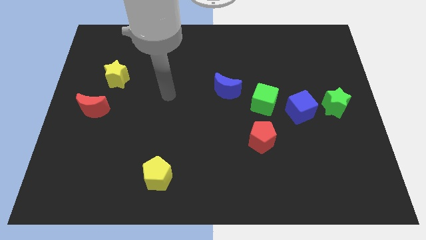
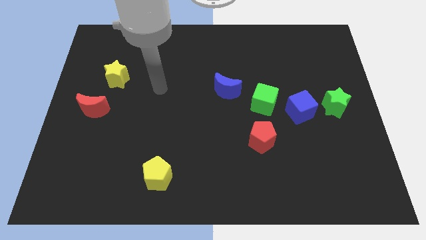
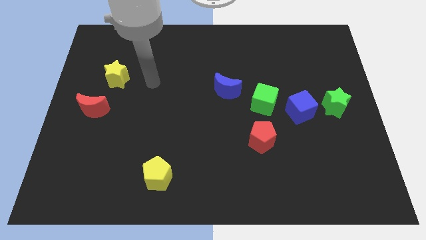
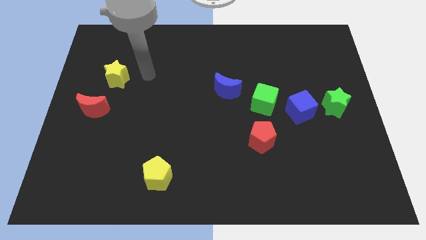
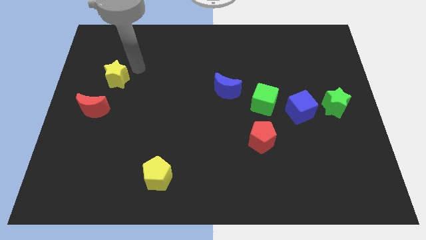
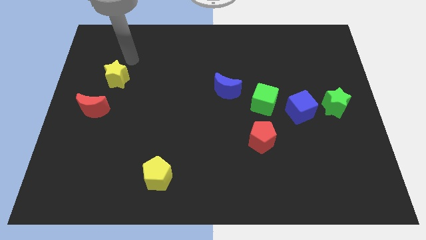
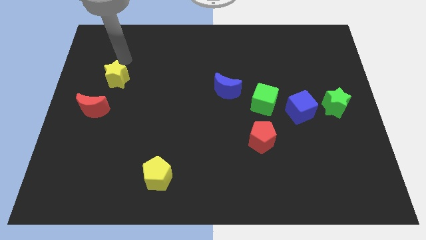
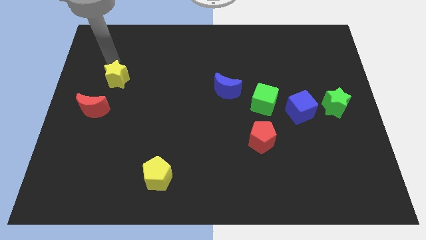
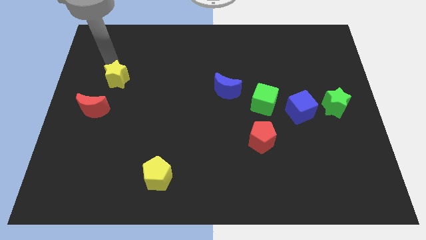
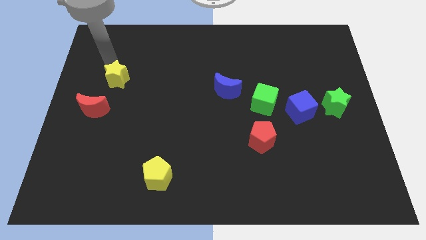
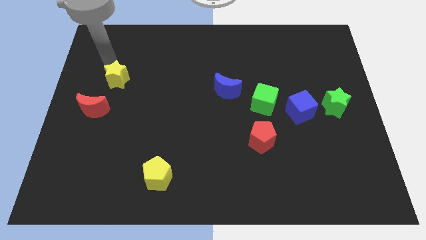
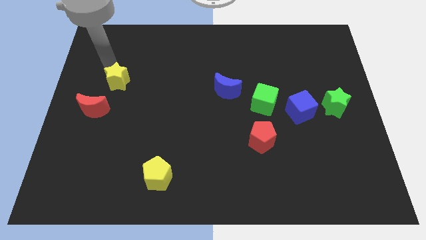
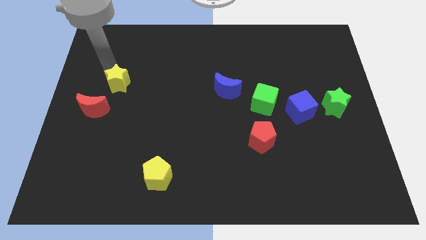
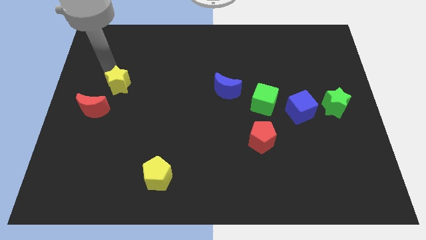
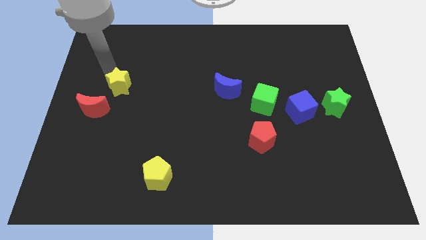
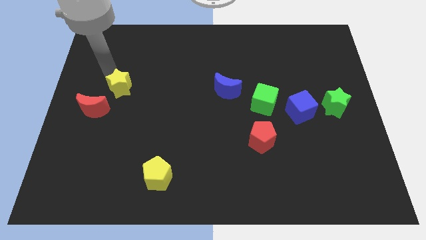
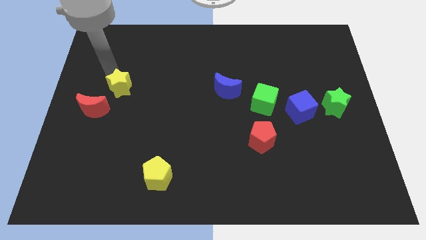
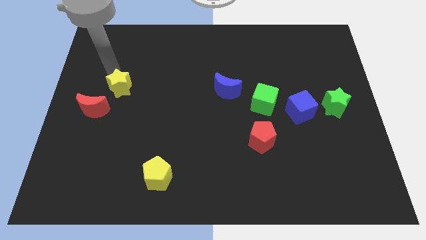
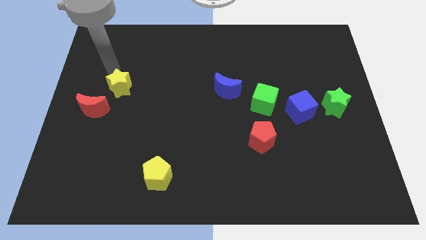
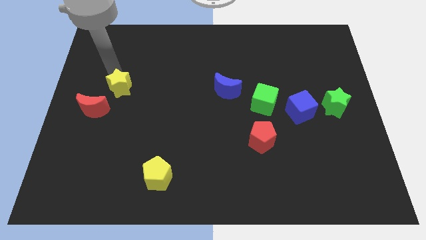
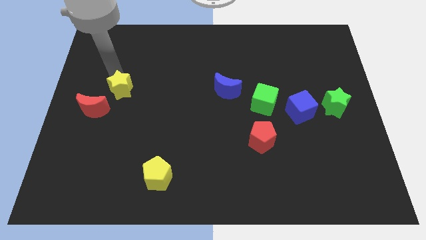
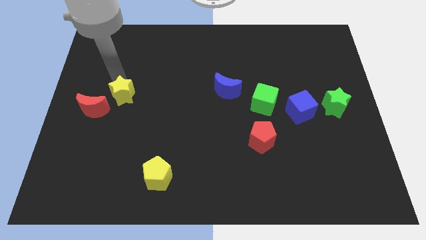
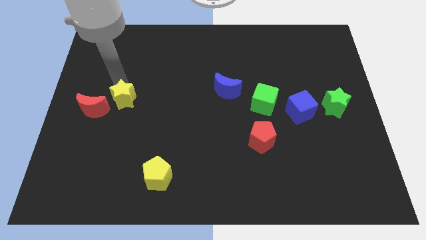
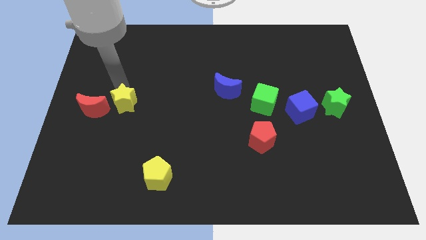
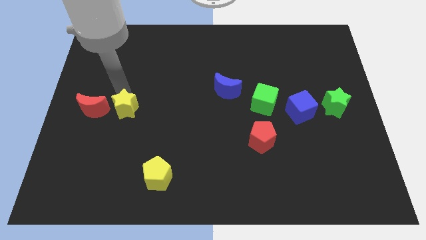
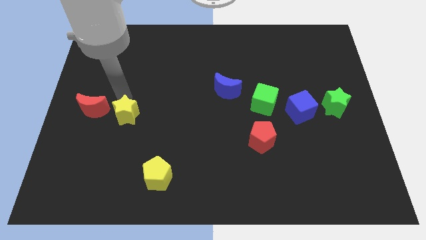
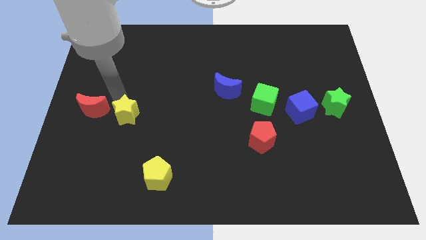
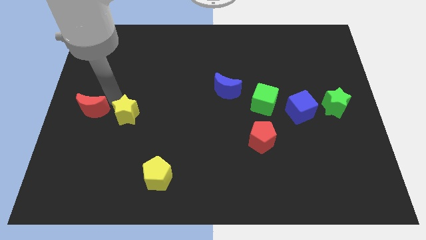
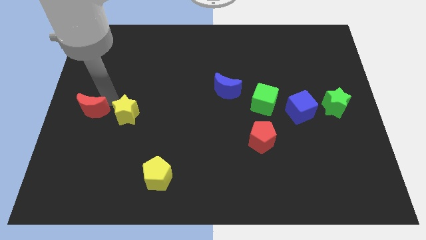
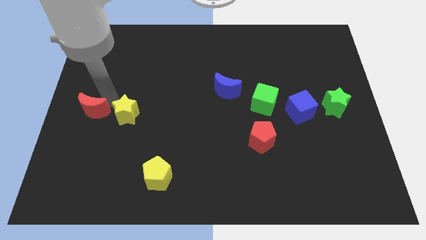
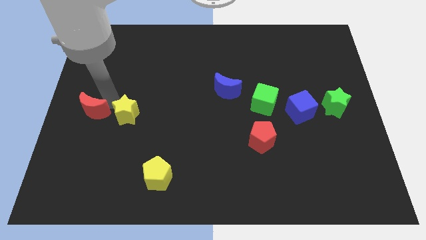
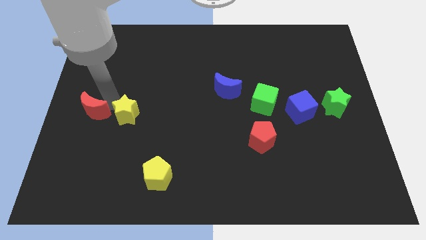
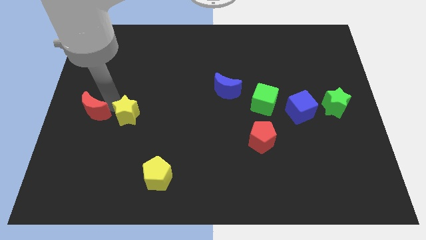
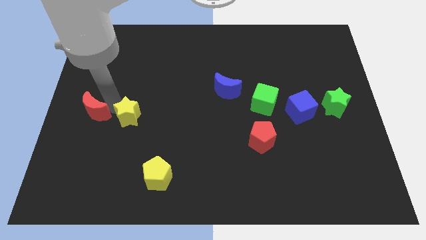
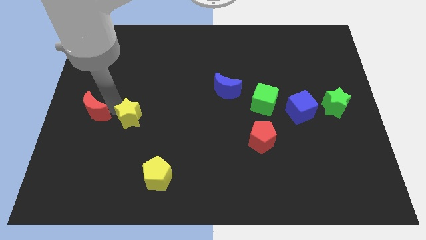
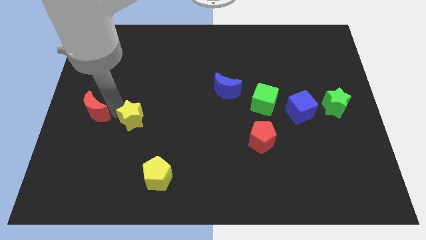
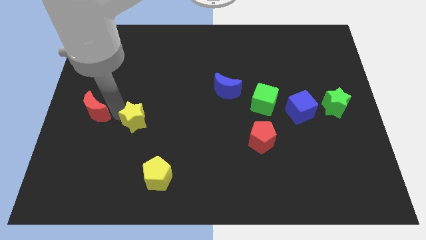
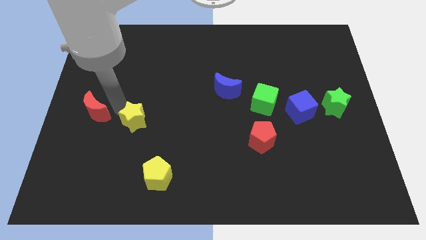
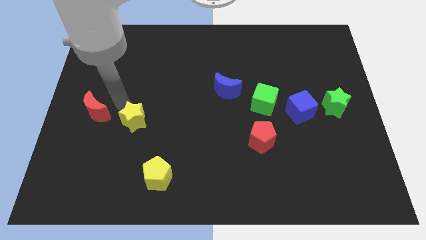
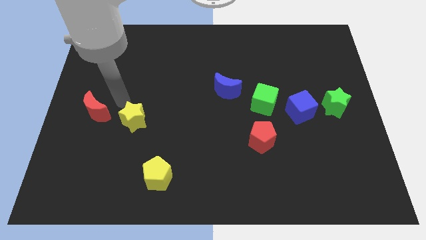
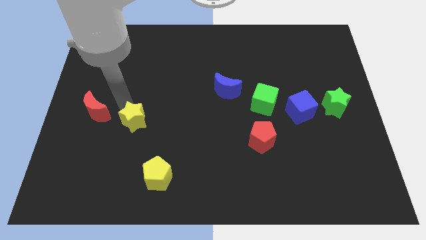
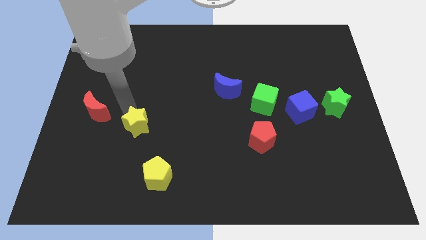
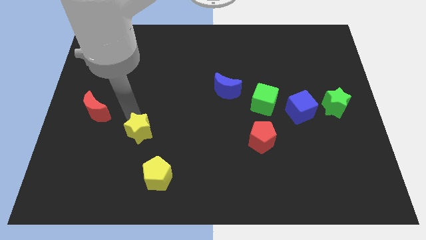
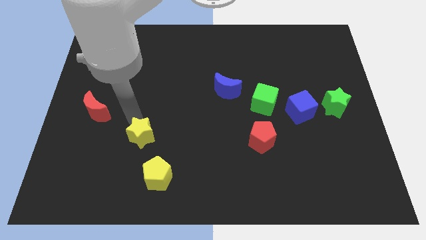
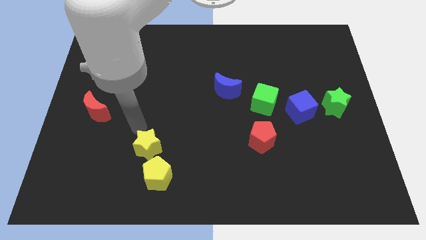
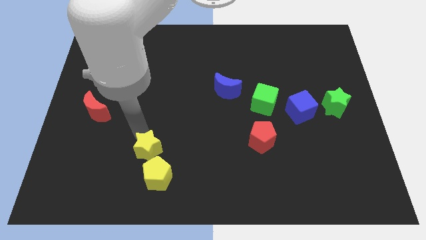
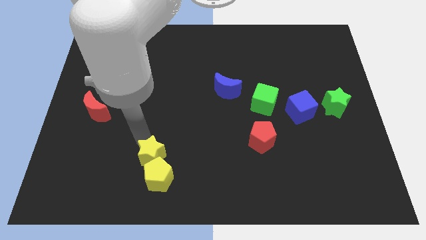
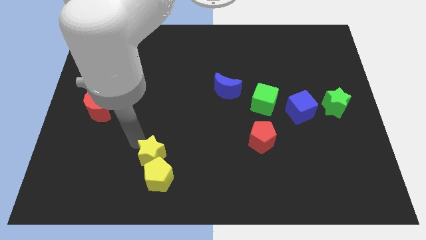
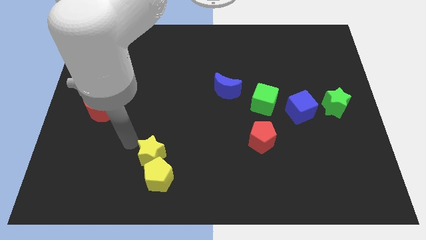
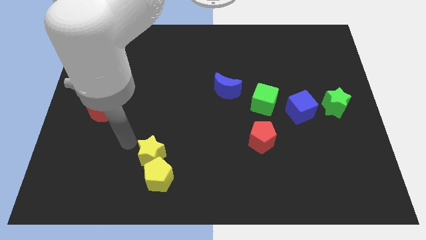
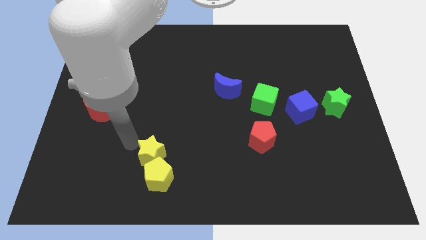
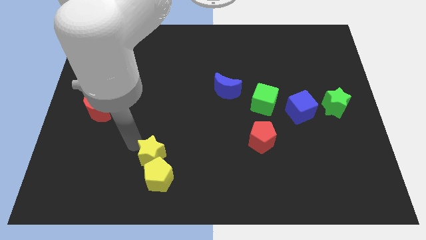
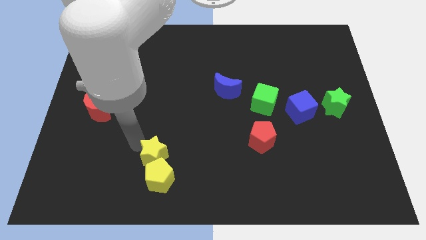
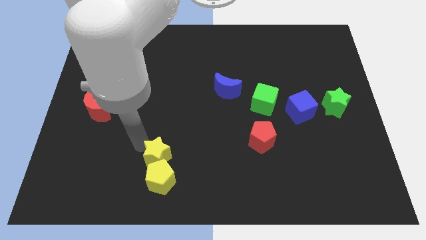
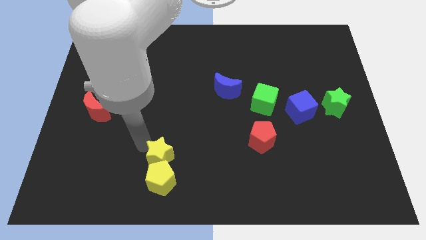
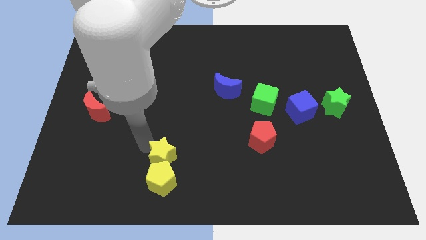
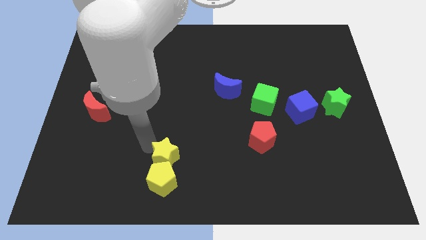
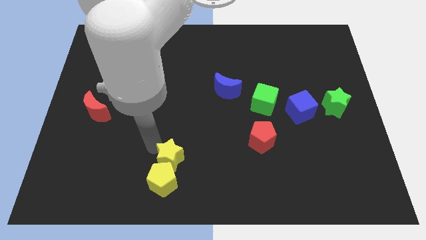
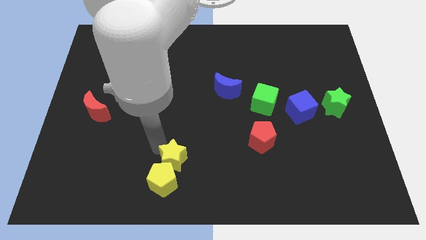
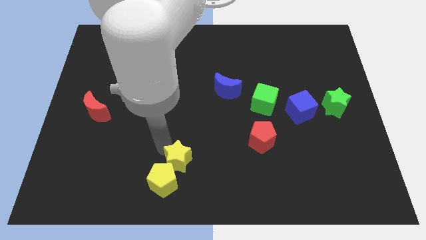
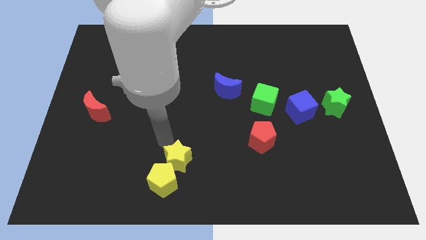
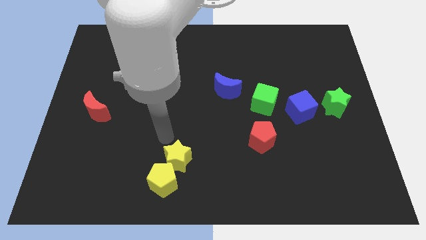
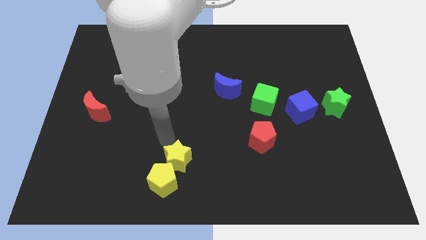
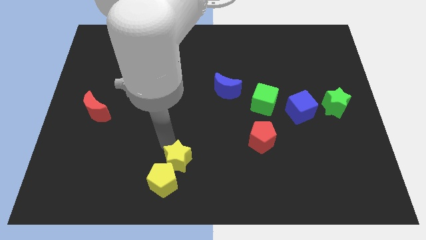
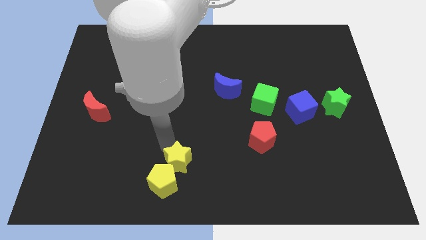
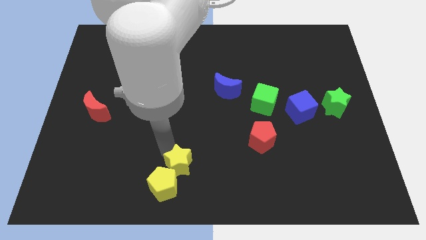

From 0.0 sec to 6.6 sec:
slide the yellow star to the bottom

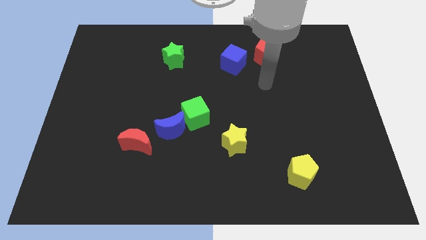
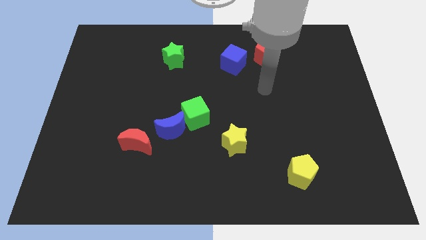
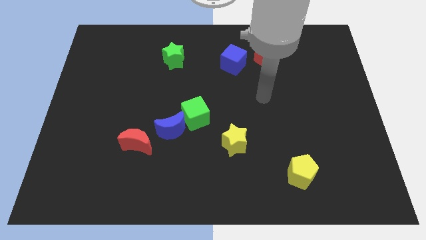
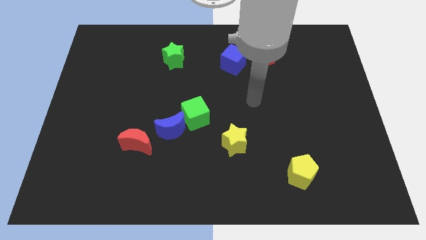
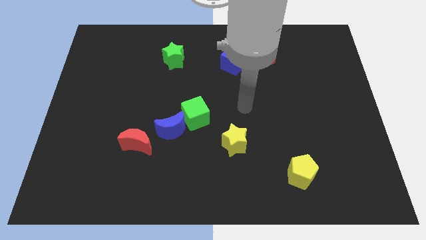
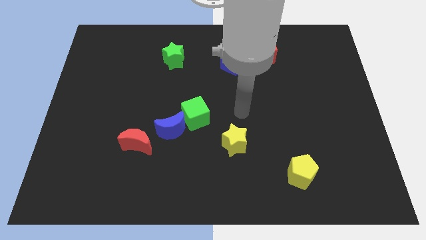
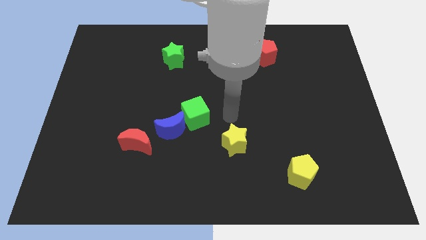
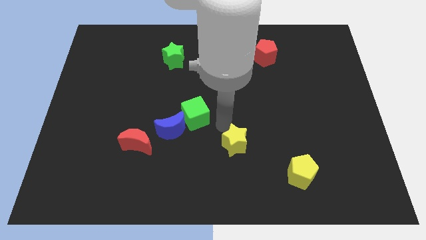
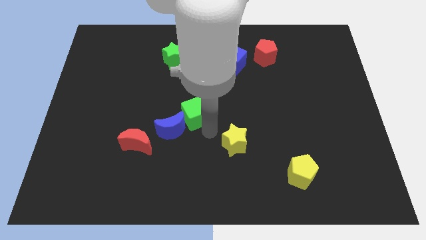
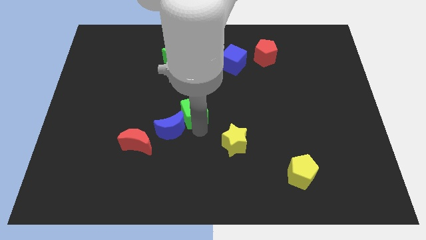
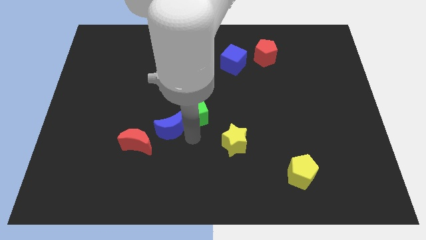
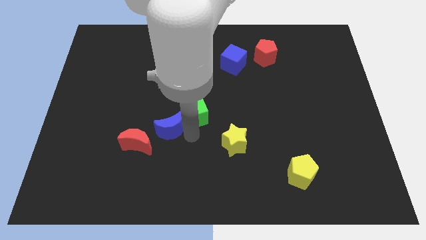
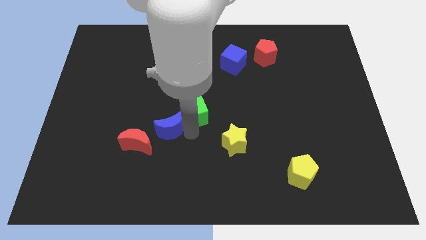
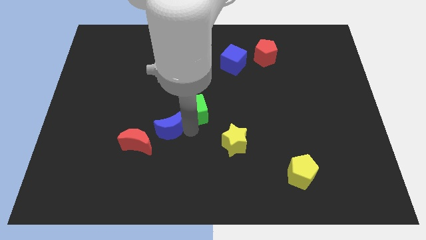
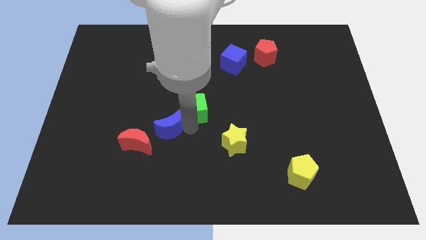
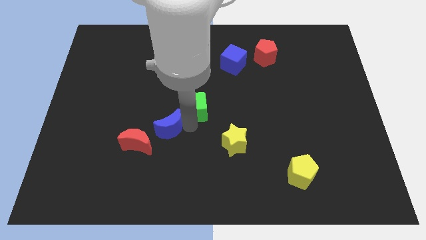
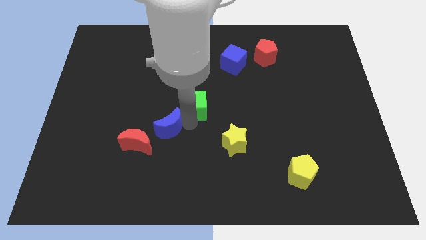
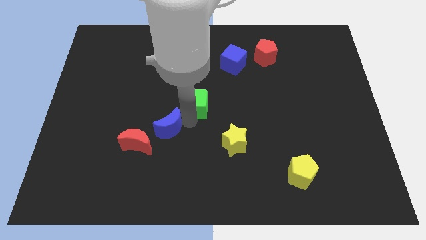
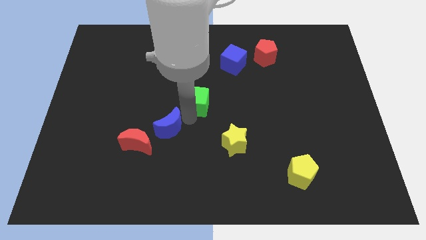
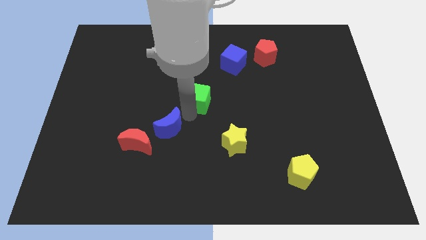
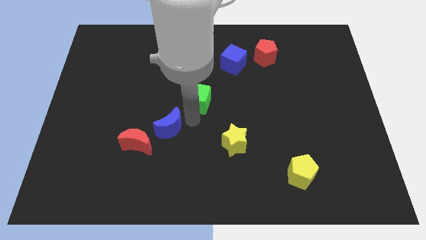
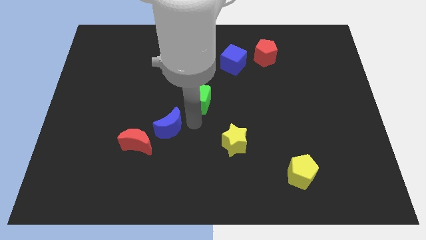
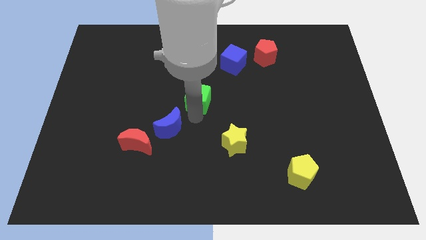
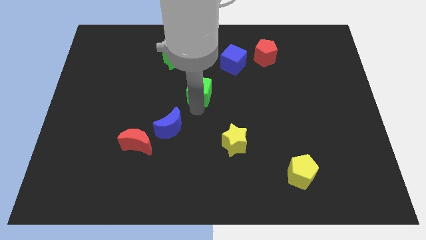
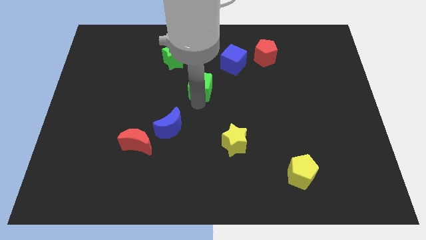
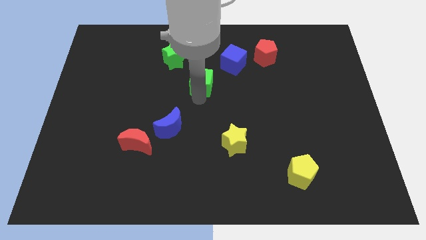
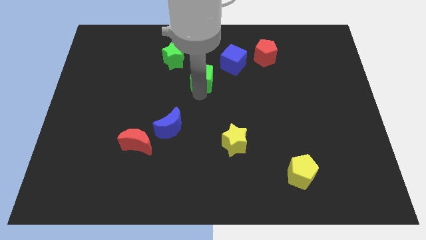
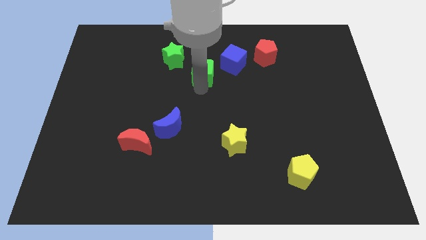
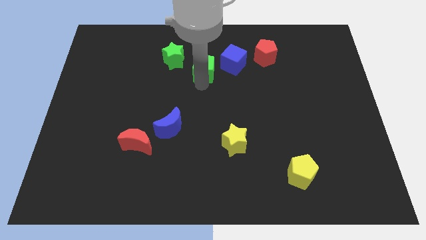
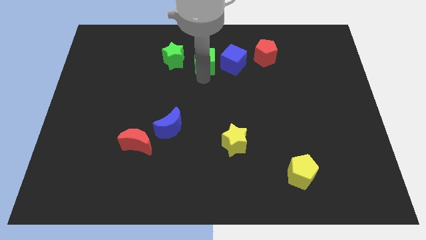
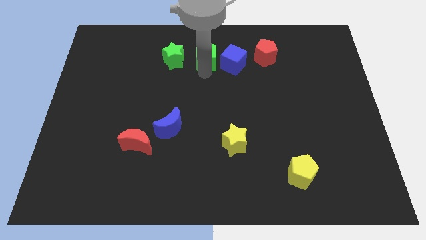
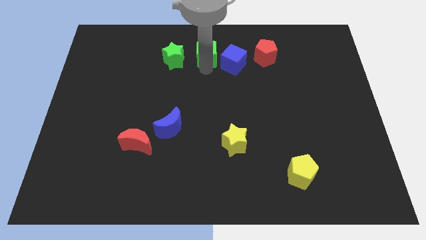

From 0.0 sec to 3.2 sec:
put the green cube to the towards your base
